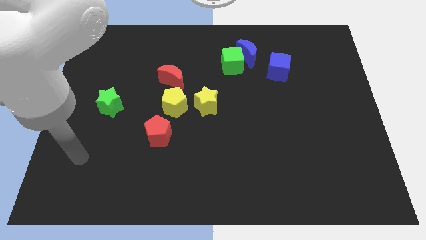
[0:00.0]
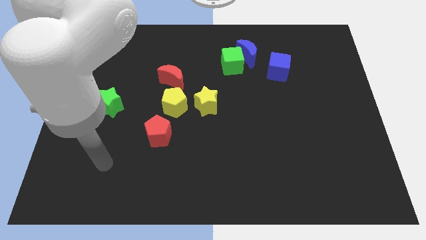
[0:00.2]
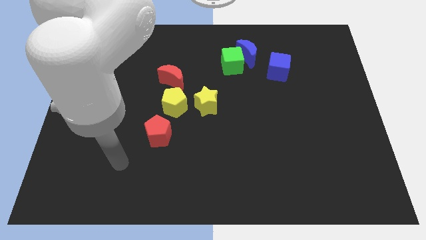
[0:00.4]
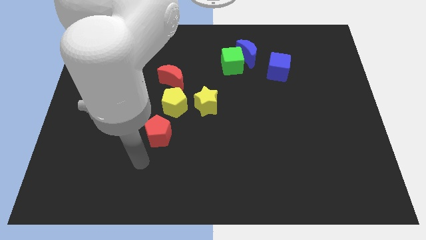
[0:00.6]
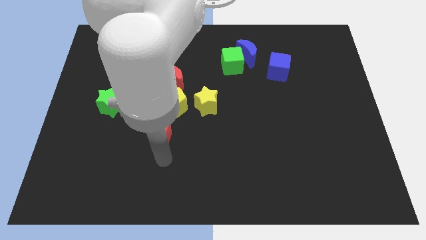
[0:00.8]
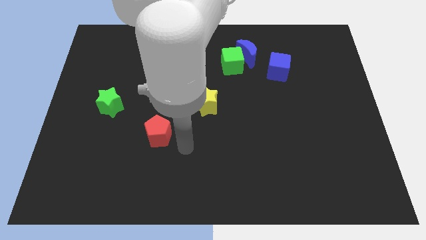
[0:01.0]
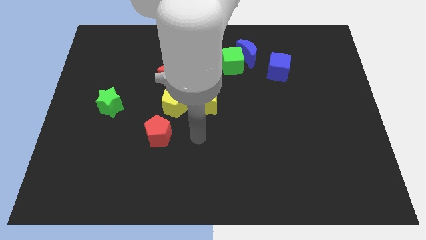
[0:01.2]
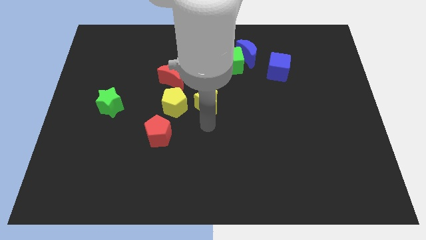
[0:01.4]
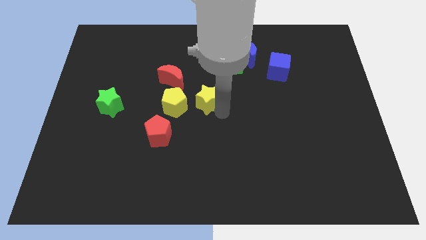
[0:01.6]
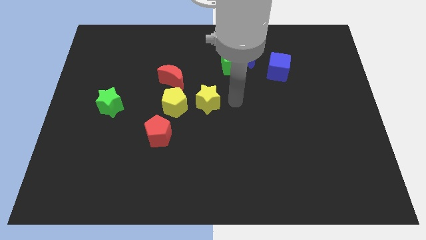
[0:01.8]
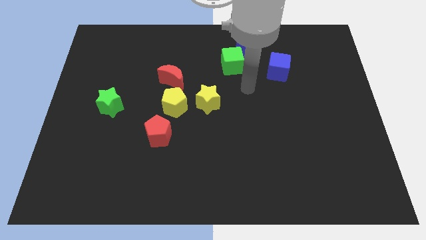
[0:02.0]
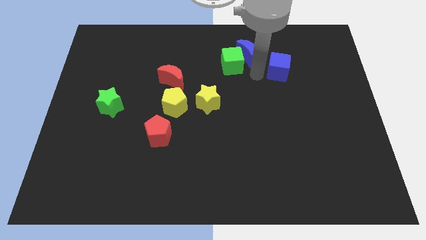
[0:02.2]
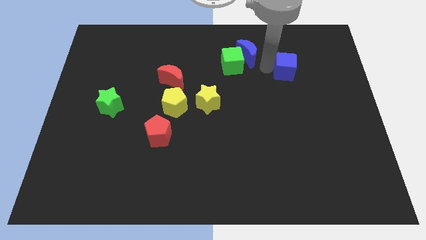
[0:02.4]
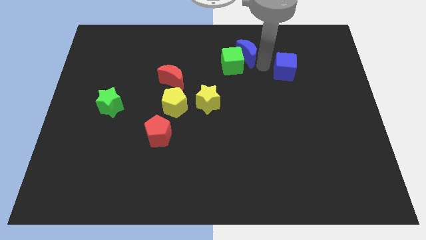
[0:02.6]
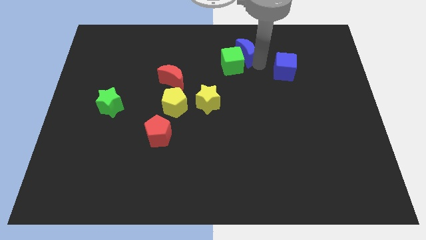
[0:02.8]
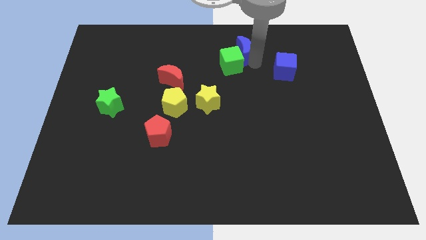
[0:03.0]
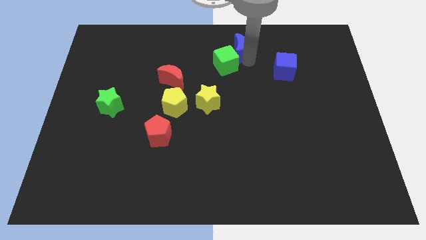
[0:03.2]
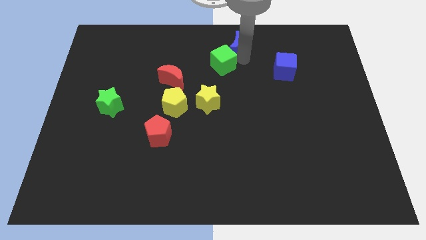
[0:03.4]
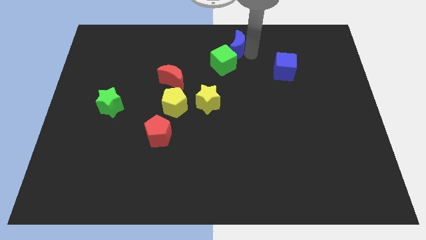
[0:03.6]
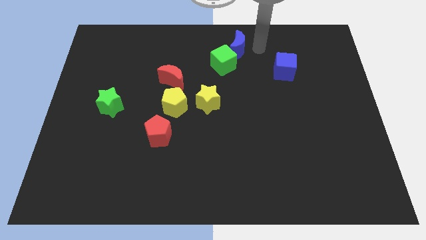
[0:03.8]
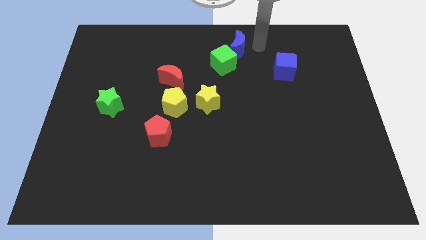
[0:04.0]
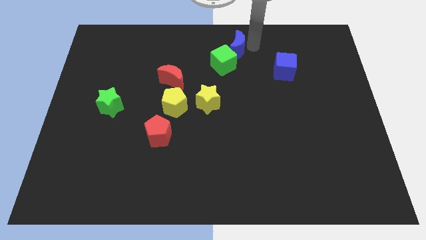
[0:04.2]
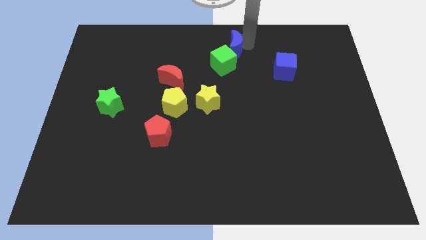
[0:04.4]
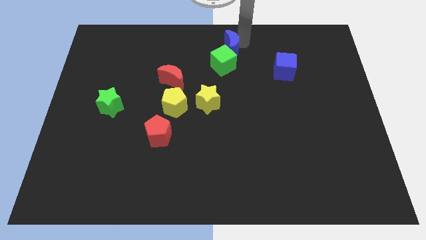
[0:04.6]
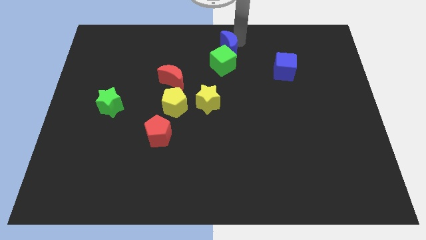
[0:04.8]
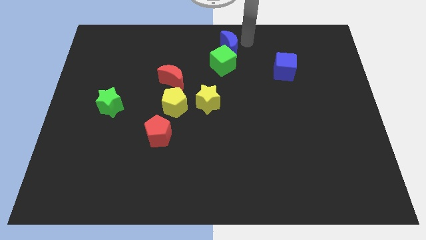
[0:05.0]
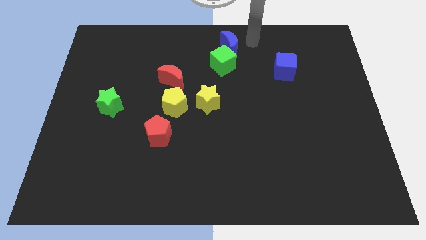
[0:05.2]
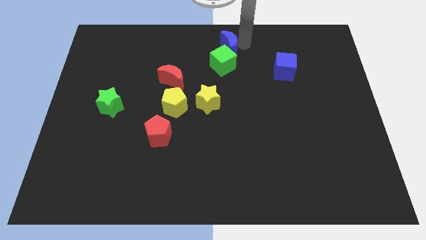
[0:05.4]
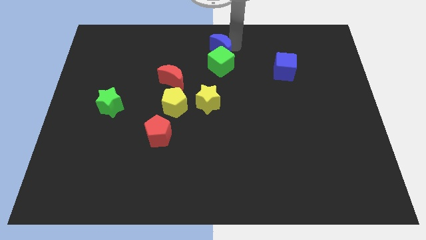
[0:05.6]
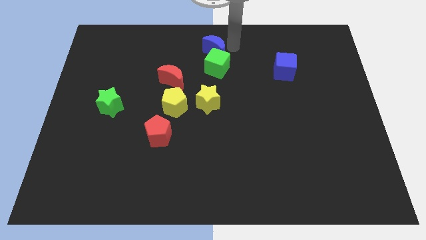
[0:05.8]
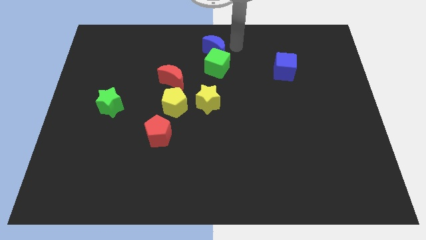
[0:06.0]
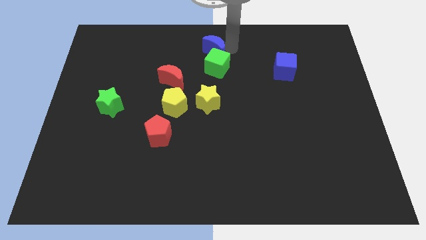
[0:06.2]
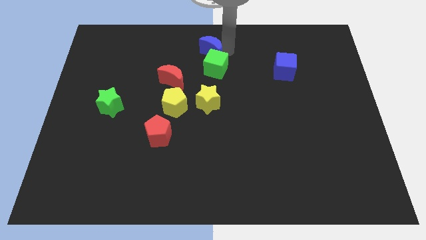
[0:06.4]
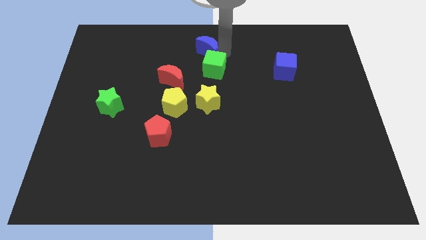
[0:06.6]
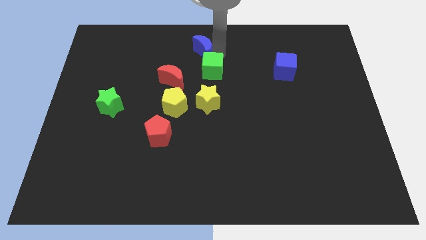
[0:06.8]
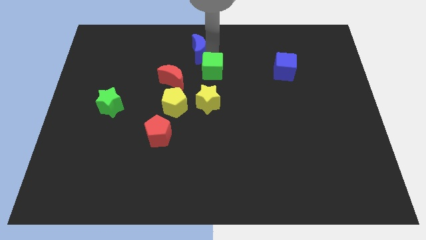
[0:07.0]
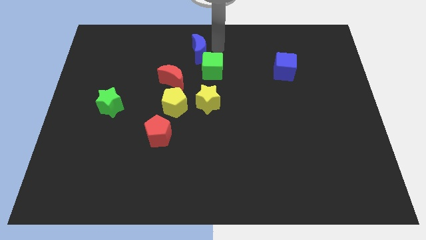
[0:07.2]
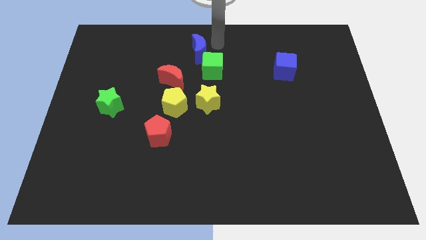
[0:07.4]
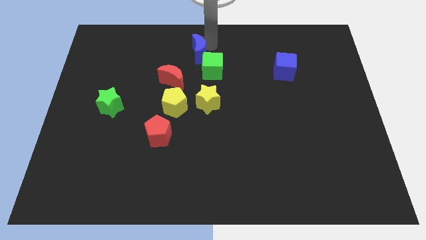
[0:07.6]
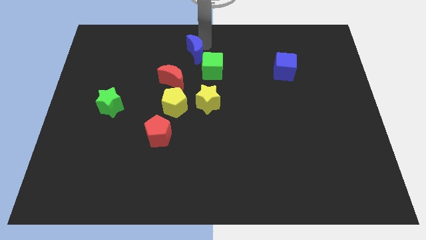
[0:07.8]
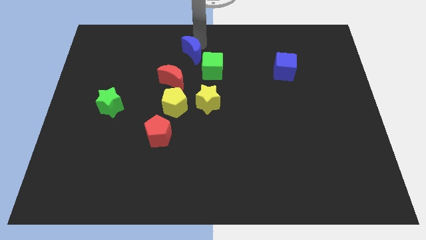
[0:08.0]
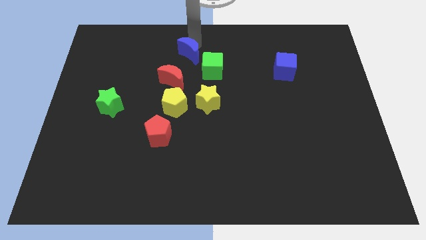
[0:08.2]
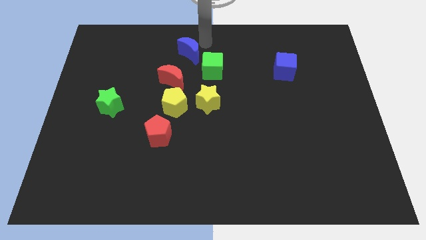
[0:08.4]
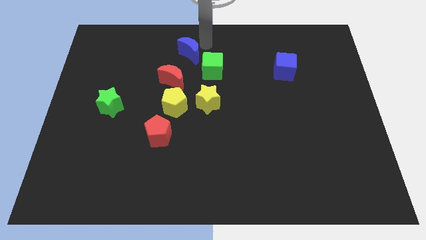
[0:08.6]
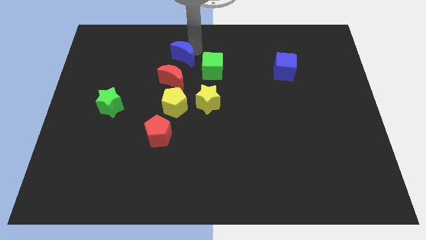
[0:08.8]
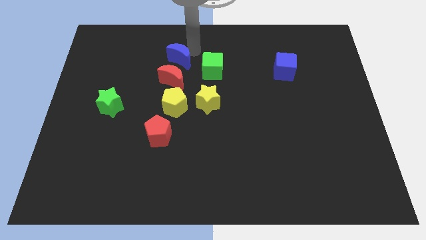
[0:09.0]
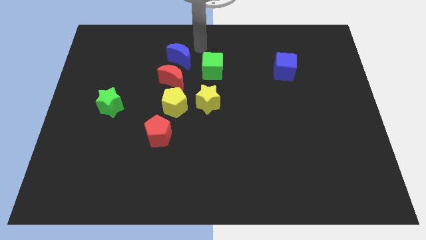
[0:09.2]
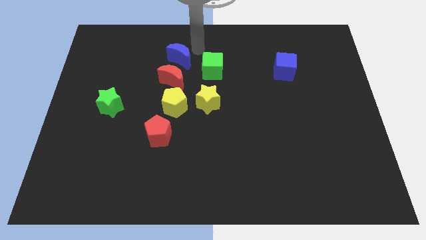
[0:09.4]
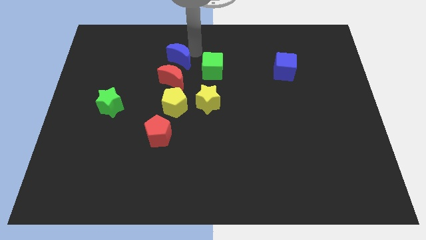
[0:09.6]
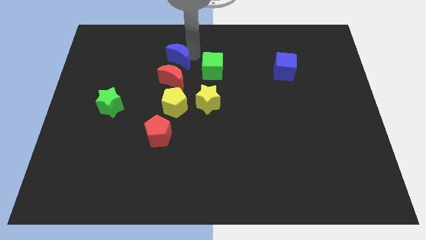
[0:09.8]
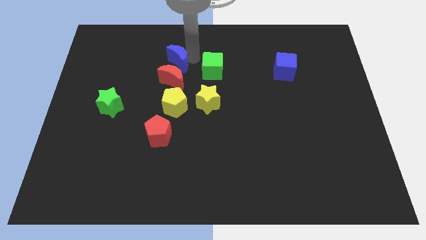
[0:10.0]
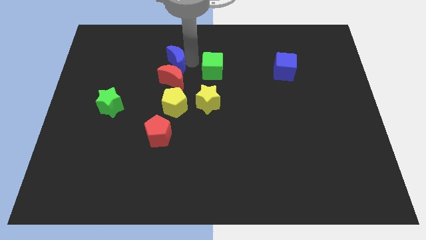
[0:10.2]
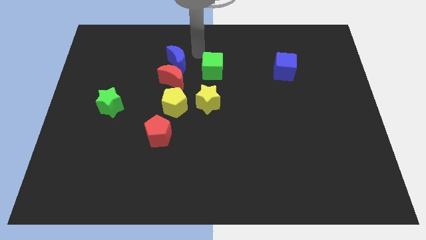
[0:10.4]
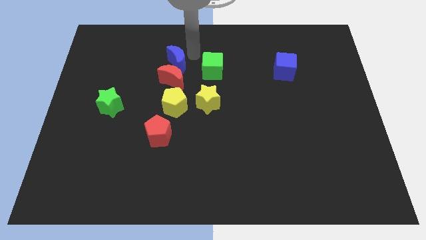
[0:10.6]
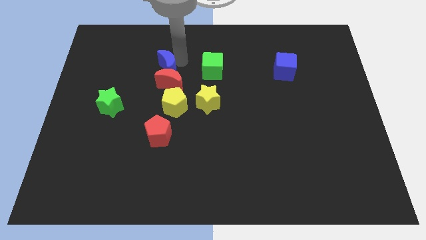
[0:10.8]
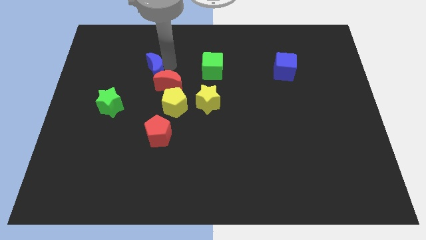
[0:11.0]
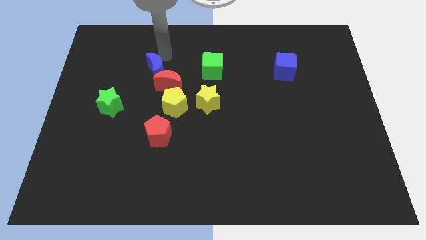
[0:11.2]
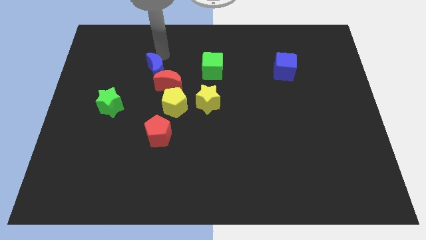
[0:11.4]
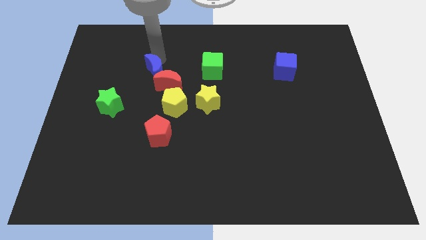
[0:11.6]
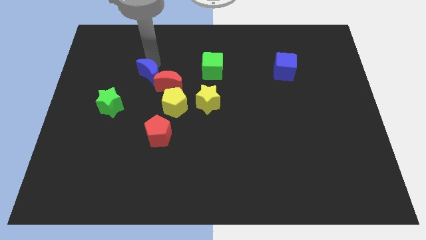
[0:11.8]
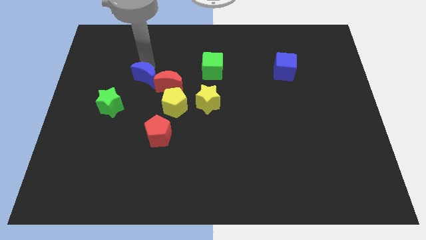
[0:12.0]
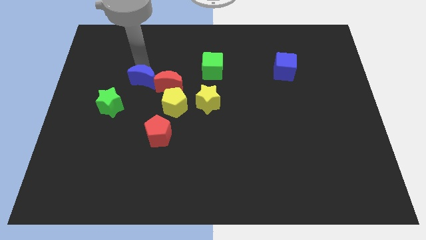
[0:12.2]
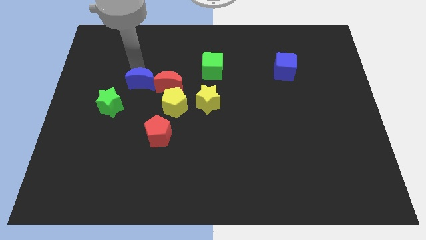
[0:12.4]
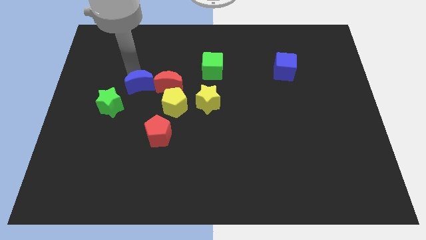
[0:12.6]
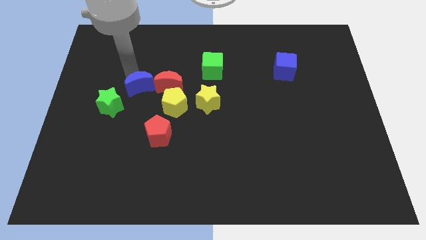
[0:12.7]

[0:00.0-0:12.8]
move the blue moon to the bottom left of the red moon
